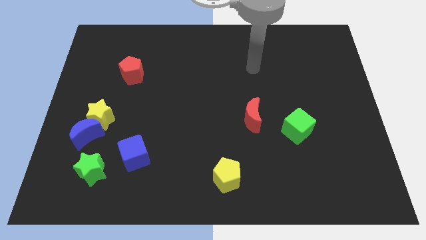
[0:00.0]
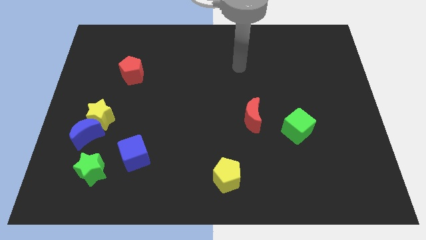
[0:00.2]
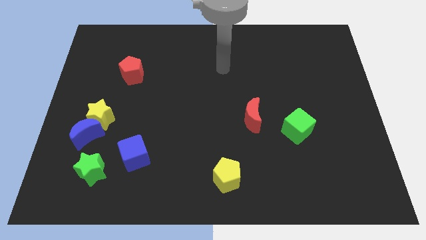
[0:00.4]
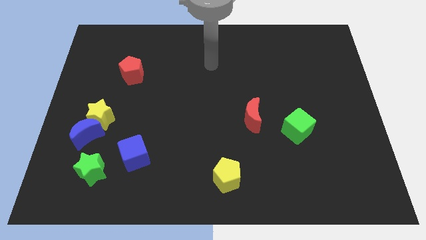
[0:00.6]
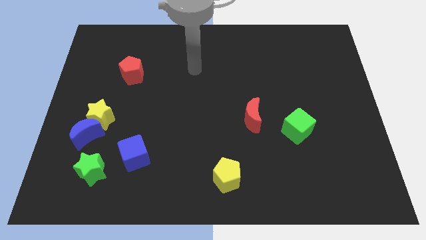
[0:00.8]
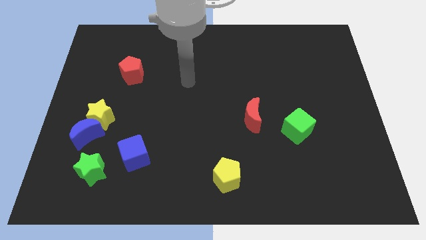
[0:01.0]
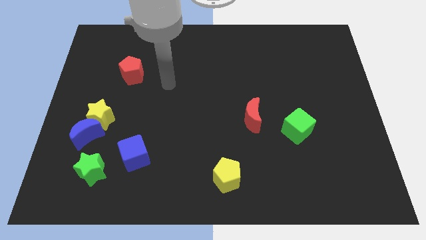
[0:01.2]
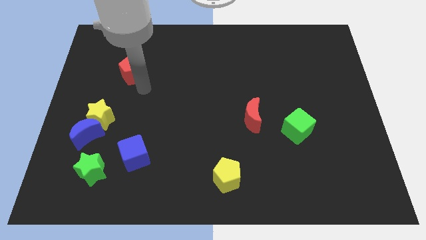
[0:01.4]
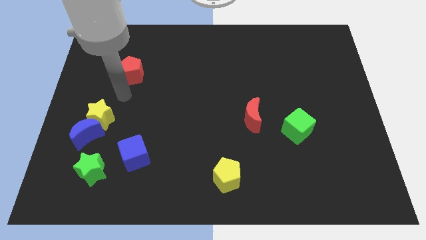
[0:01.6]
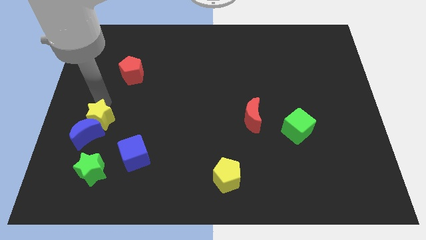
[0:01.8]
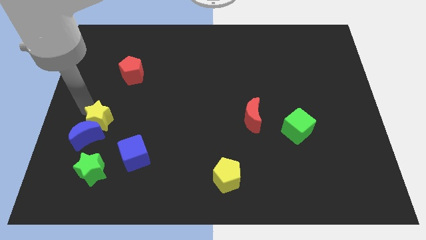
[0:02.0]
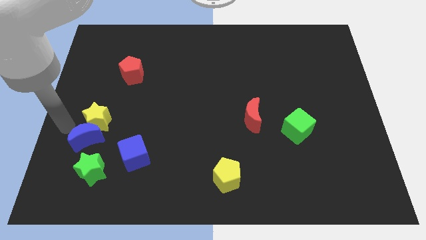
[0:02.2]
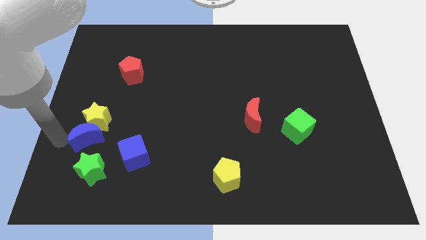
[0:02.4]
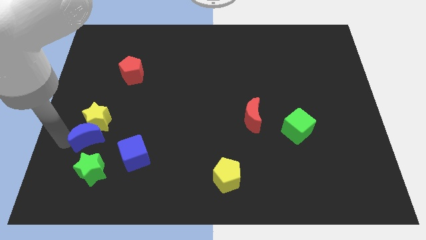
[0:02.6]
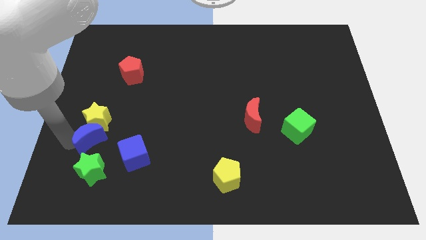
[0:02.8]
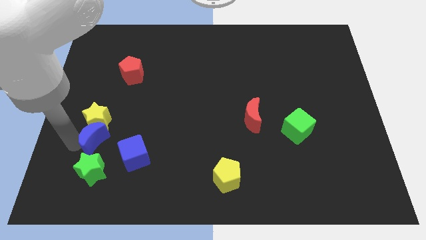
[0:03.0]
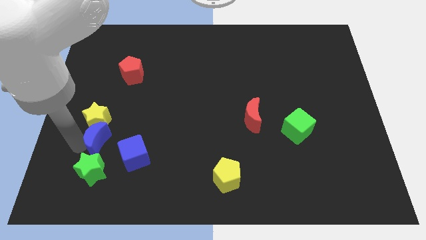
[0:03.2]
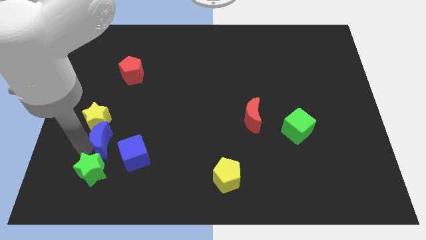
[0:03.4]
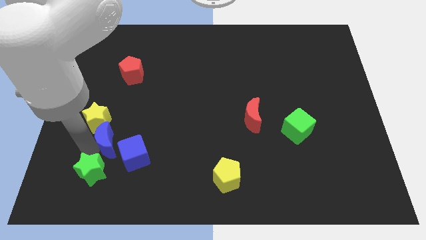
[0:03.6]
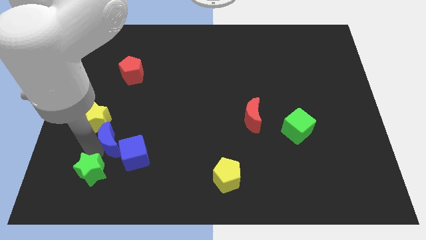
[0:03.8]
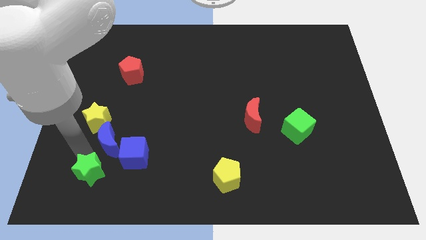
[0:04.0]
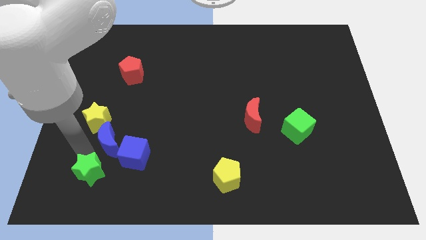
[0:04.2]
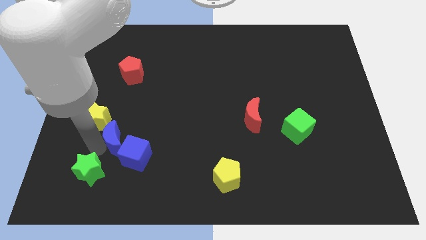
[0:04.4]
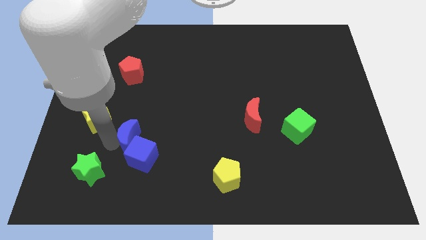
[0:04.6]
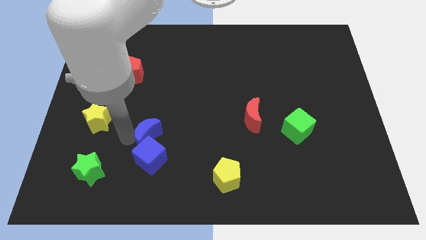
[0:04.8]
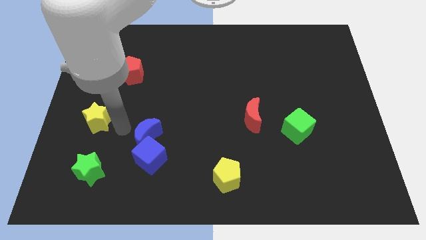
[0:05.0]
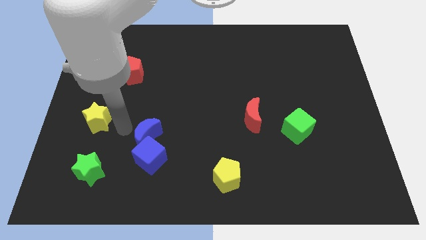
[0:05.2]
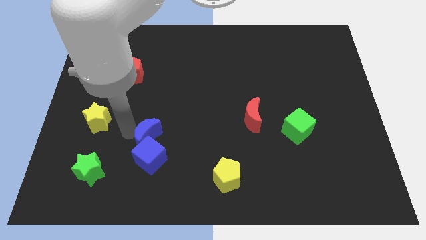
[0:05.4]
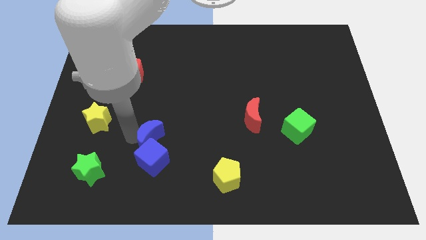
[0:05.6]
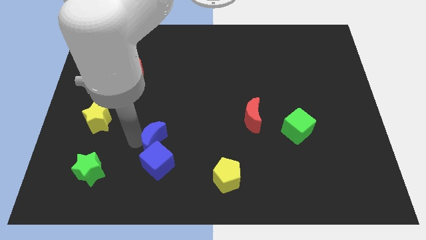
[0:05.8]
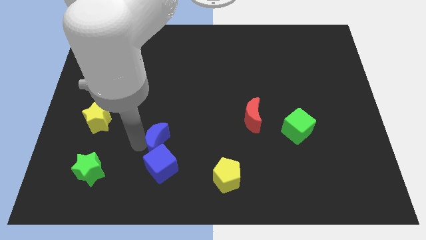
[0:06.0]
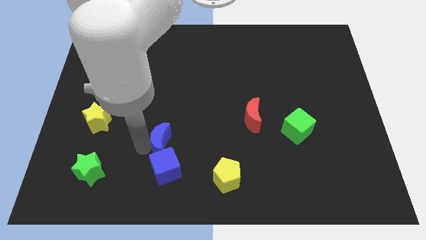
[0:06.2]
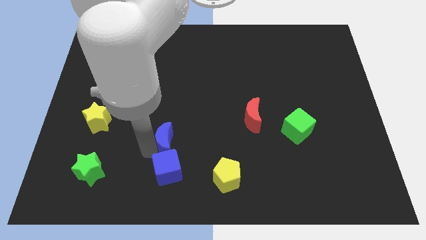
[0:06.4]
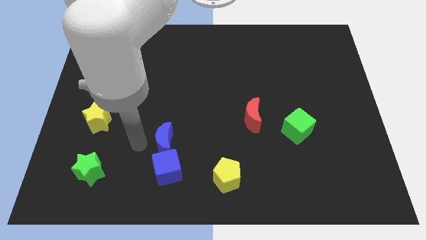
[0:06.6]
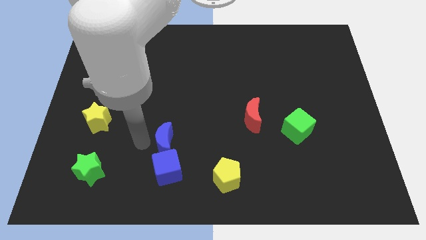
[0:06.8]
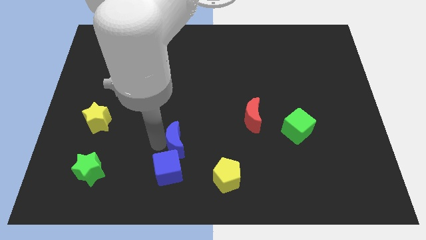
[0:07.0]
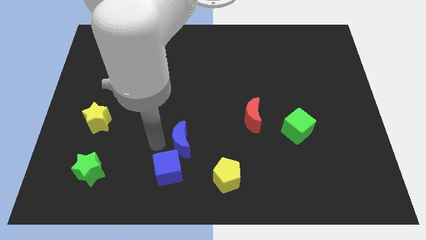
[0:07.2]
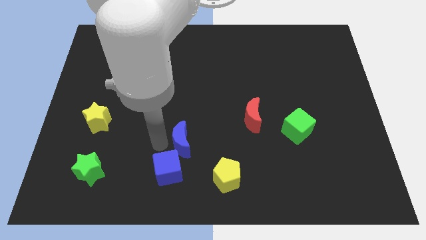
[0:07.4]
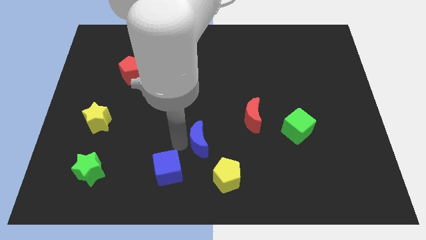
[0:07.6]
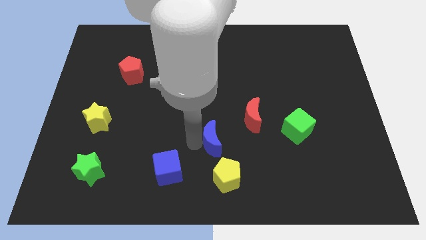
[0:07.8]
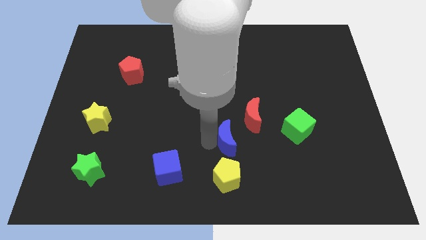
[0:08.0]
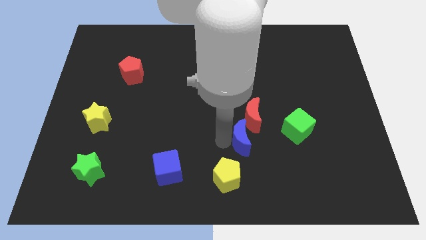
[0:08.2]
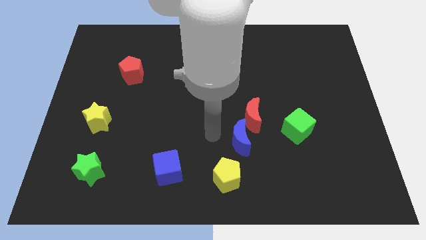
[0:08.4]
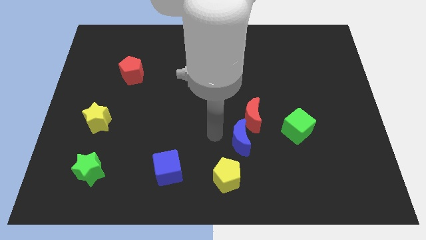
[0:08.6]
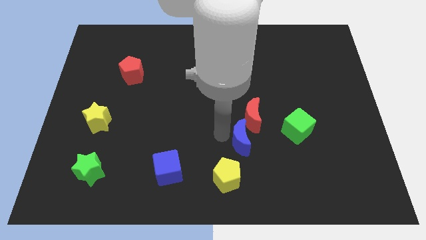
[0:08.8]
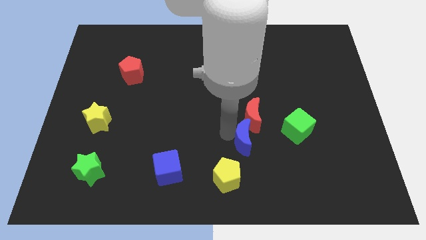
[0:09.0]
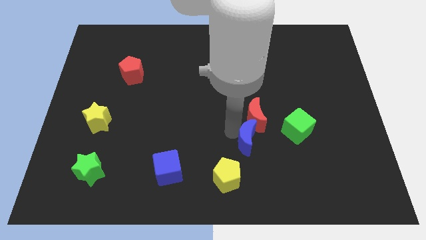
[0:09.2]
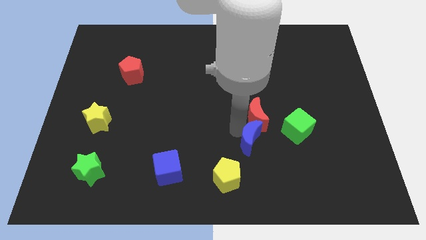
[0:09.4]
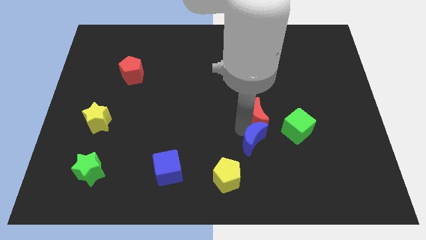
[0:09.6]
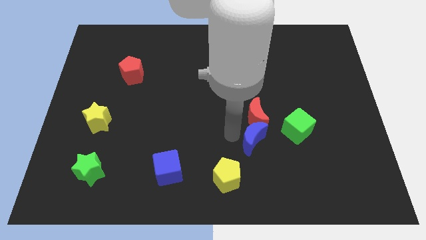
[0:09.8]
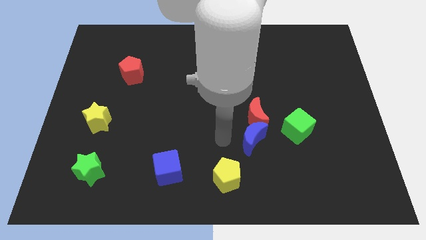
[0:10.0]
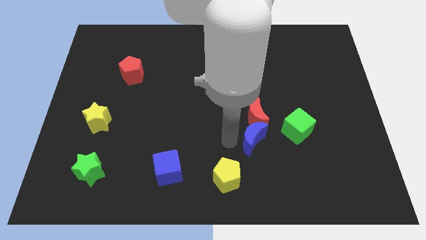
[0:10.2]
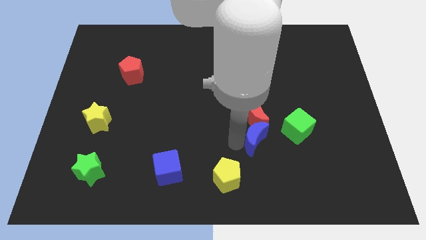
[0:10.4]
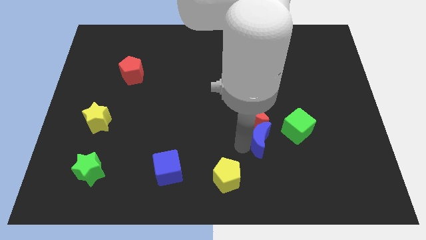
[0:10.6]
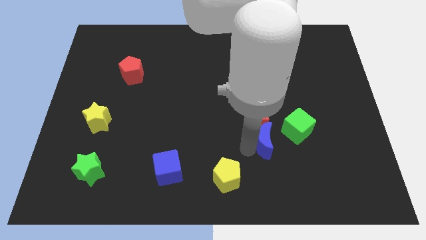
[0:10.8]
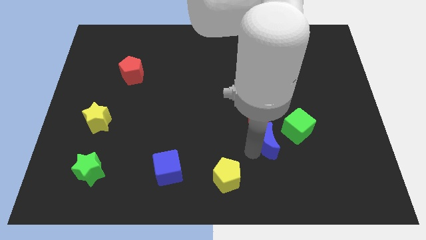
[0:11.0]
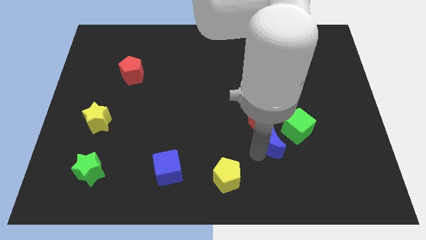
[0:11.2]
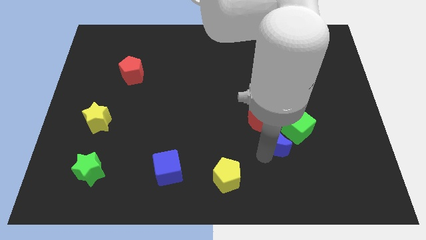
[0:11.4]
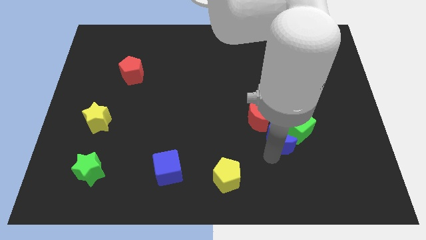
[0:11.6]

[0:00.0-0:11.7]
slide the blue moon next to the green cube

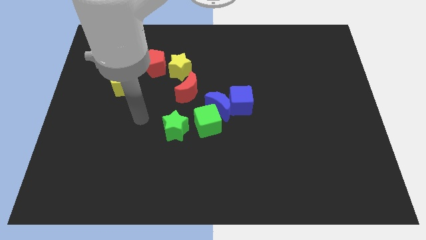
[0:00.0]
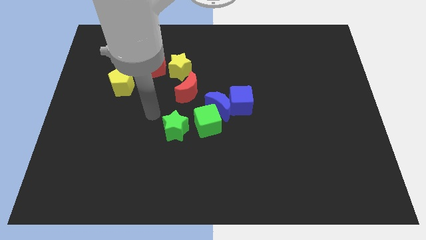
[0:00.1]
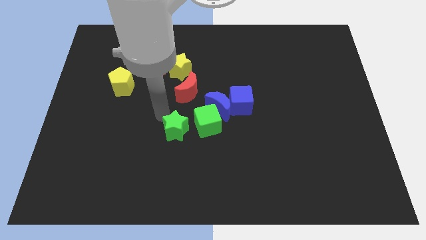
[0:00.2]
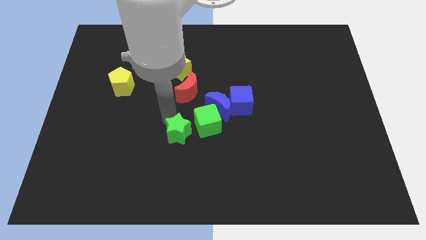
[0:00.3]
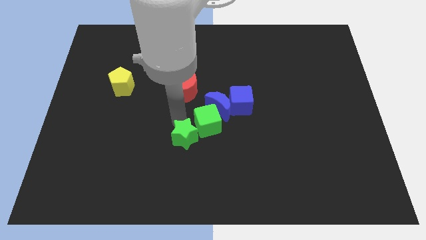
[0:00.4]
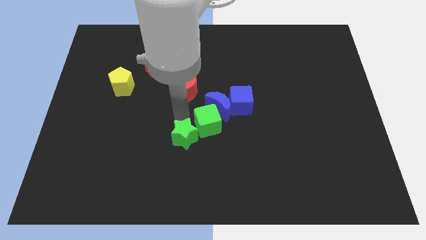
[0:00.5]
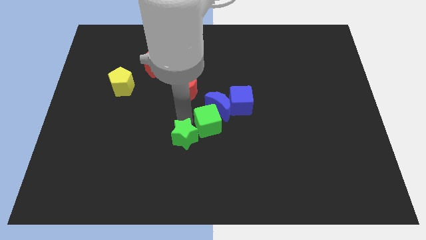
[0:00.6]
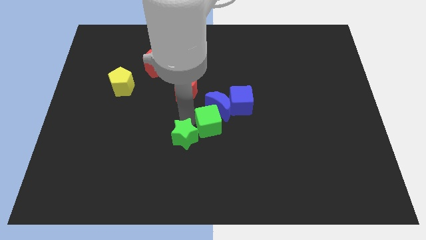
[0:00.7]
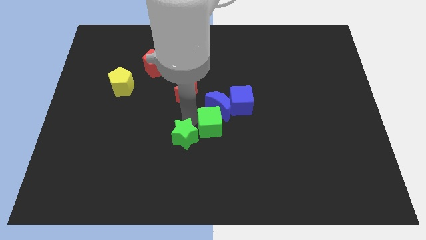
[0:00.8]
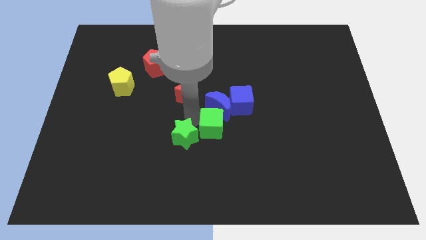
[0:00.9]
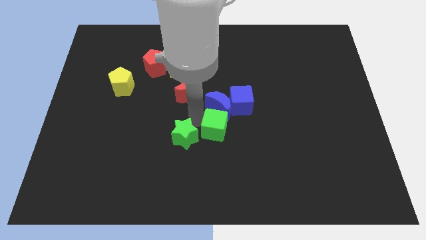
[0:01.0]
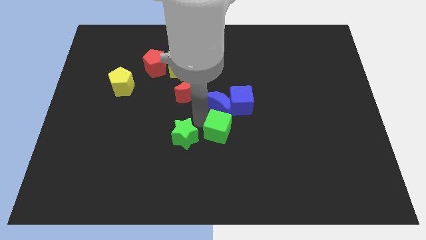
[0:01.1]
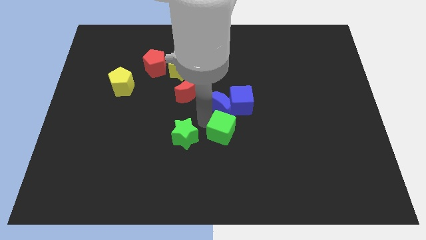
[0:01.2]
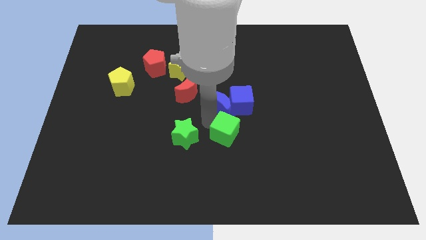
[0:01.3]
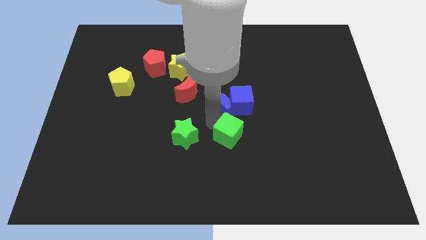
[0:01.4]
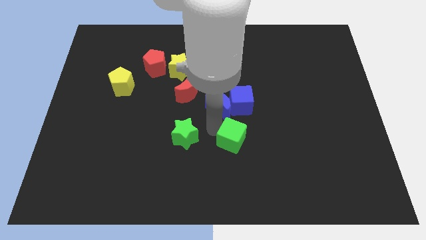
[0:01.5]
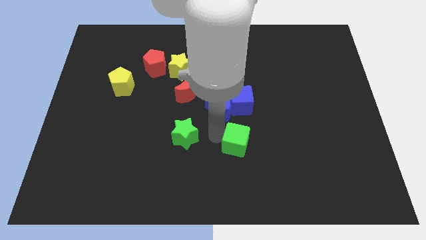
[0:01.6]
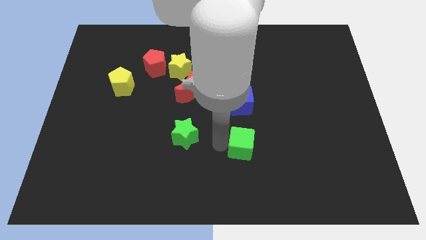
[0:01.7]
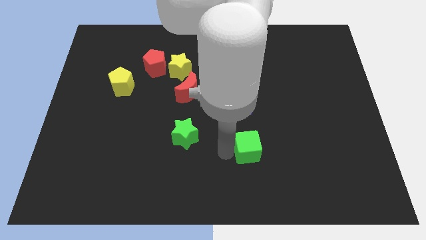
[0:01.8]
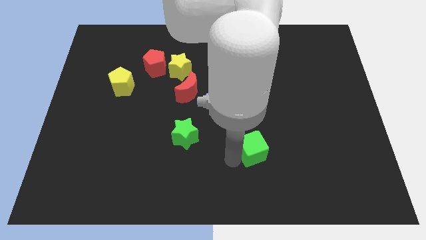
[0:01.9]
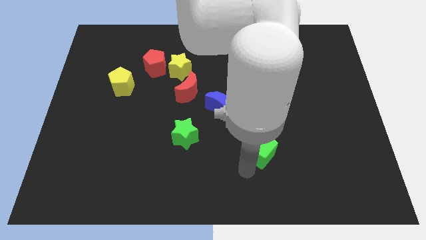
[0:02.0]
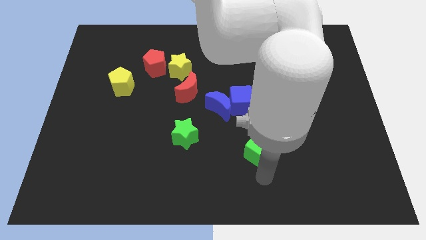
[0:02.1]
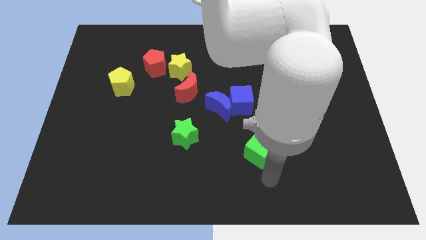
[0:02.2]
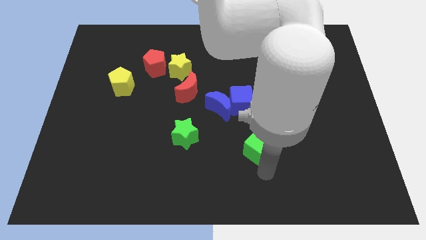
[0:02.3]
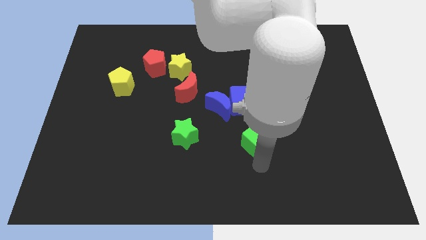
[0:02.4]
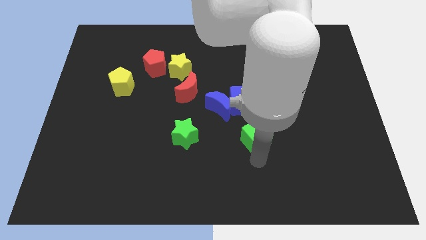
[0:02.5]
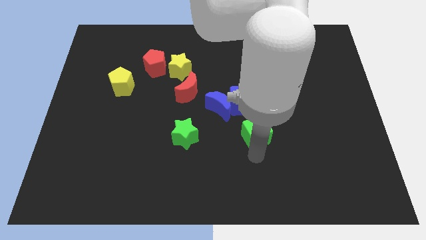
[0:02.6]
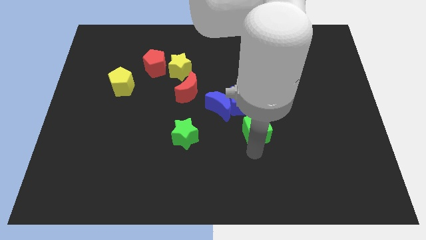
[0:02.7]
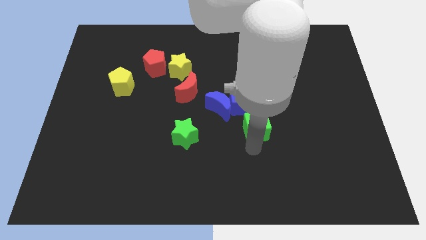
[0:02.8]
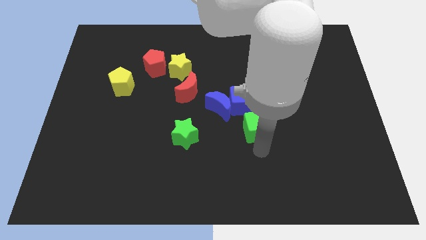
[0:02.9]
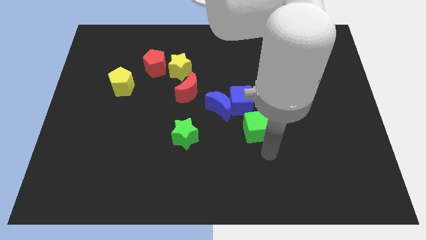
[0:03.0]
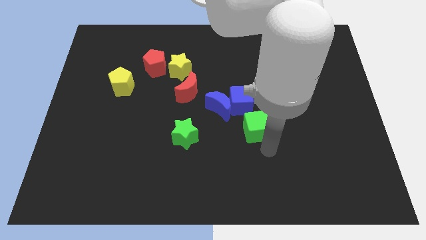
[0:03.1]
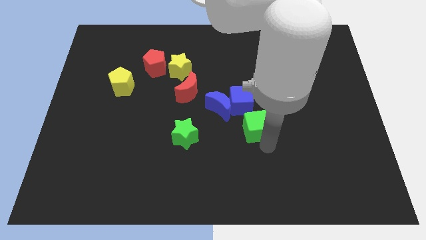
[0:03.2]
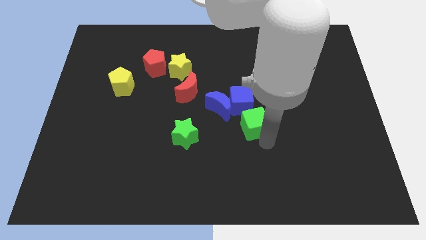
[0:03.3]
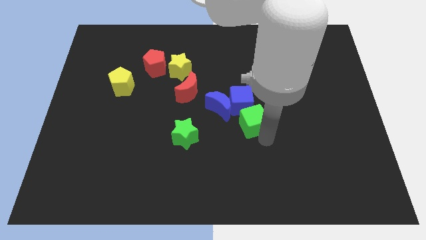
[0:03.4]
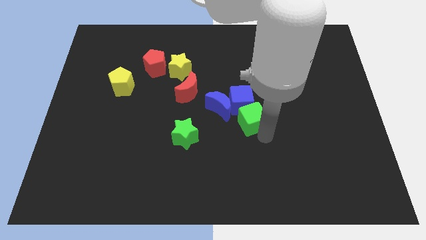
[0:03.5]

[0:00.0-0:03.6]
put the green cube to the blue cube
